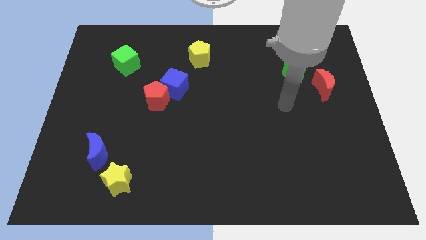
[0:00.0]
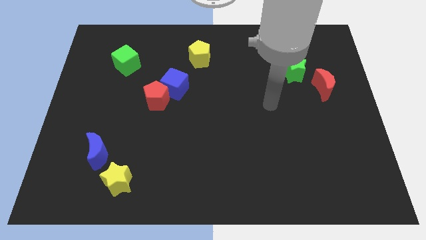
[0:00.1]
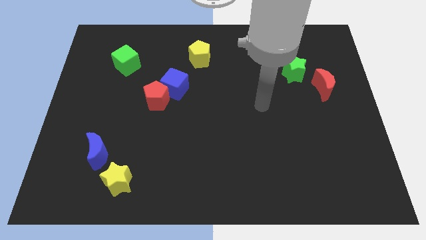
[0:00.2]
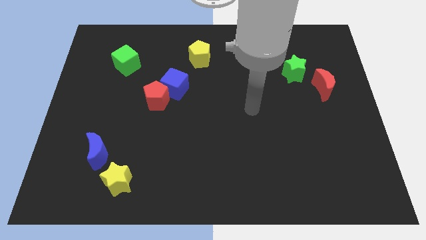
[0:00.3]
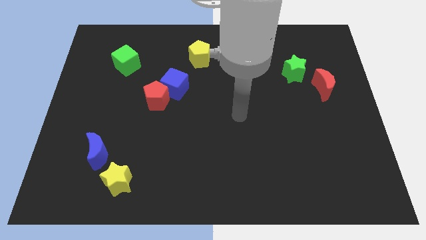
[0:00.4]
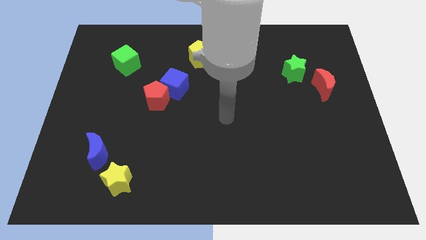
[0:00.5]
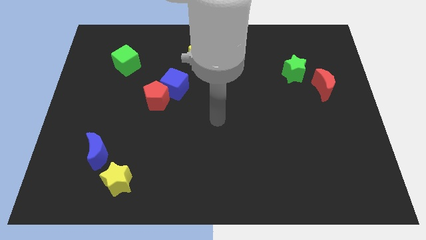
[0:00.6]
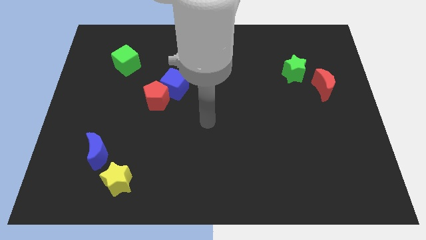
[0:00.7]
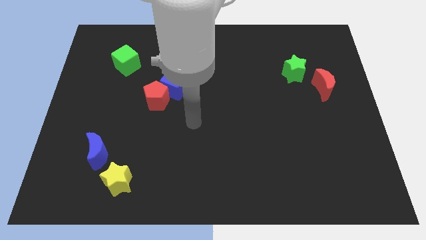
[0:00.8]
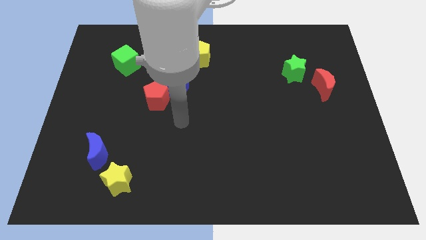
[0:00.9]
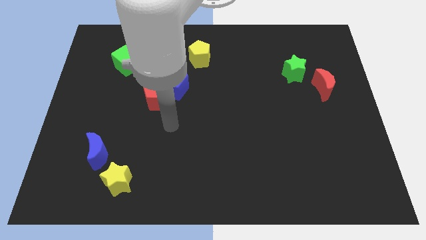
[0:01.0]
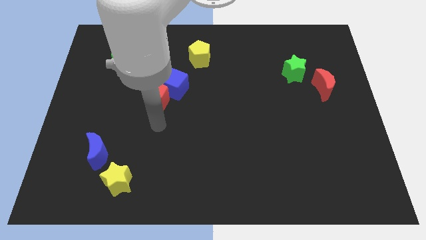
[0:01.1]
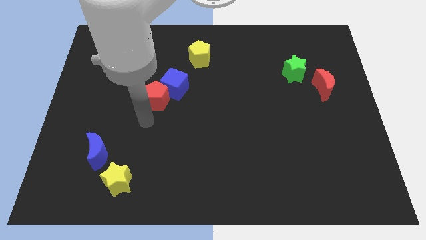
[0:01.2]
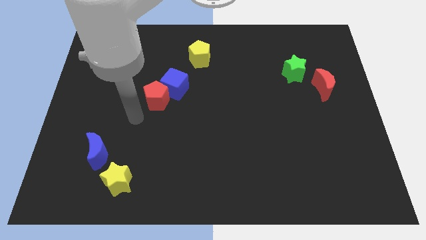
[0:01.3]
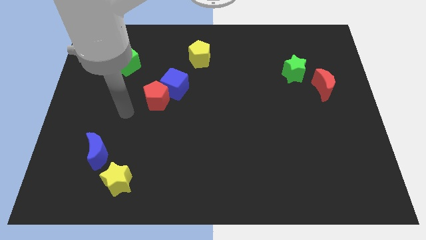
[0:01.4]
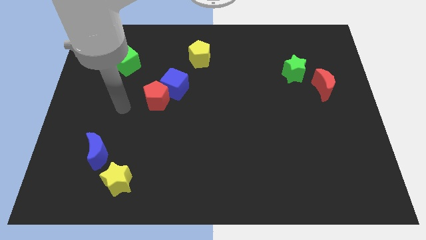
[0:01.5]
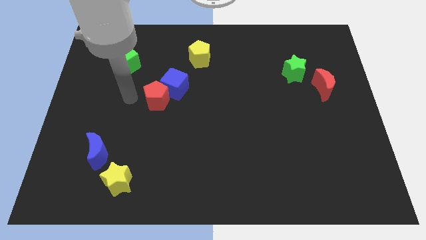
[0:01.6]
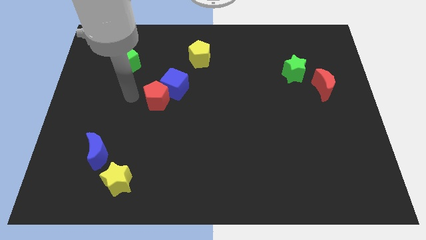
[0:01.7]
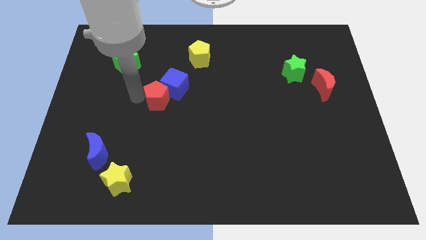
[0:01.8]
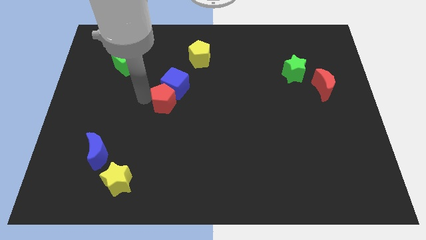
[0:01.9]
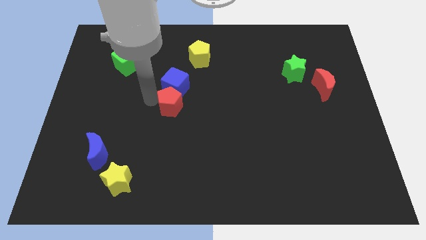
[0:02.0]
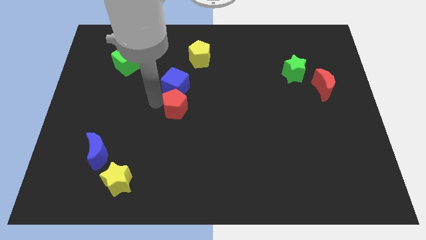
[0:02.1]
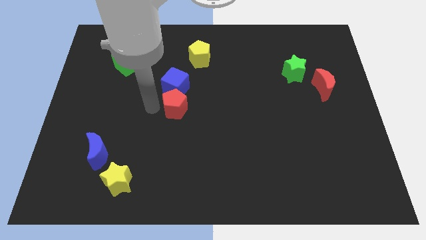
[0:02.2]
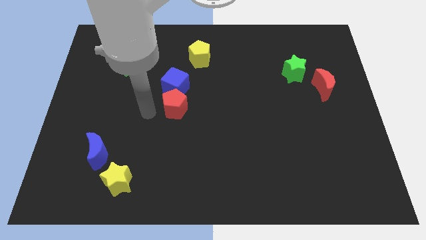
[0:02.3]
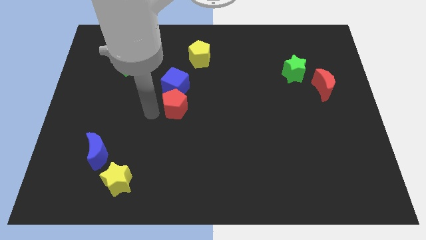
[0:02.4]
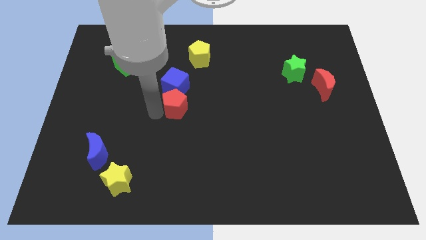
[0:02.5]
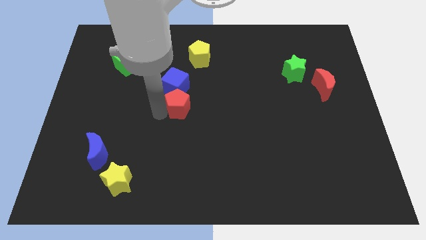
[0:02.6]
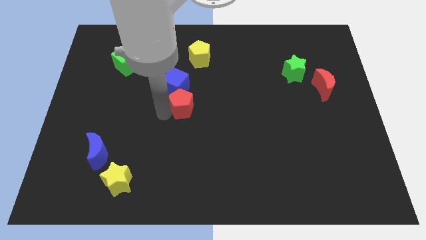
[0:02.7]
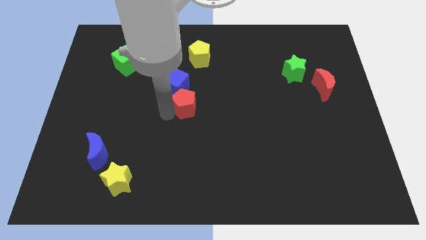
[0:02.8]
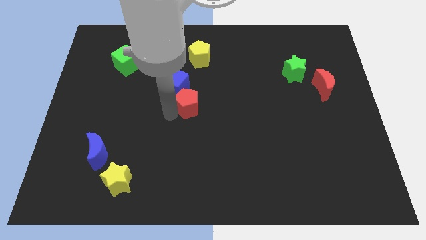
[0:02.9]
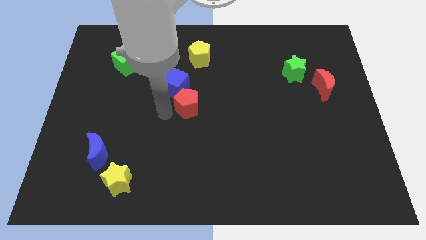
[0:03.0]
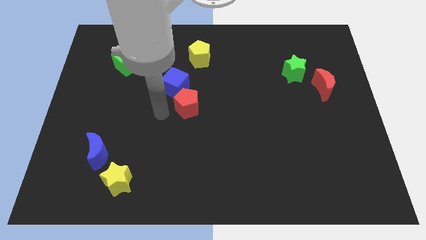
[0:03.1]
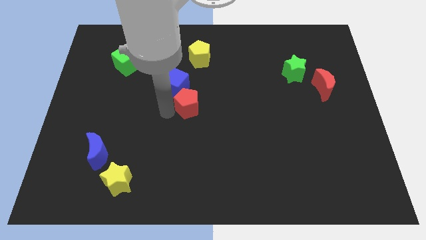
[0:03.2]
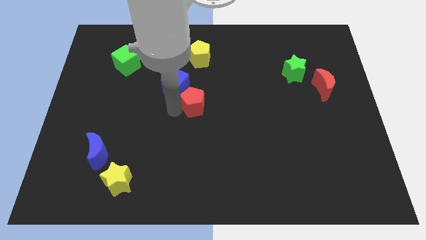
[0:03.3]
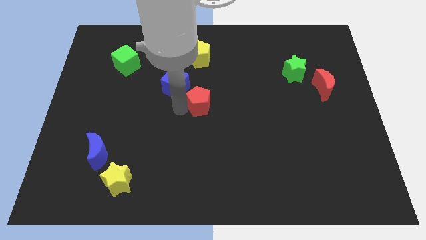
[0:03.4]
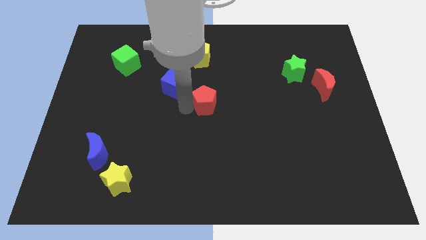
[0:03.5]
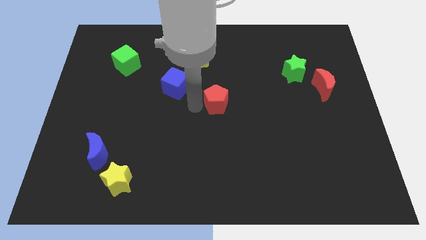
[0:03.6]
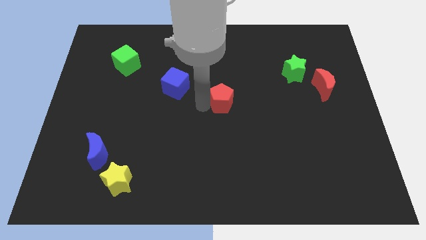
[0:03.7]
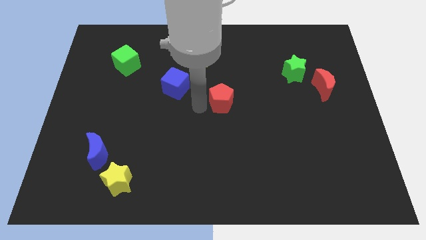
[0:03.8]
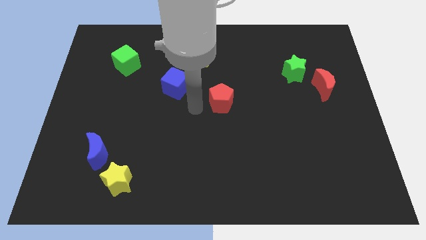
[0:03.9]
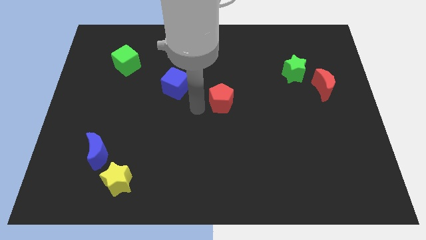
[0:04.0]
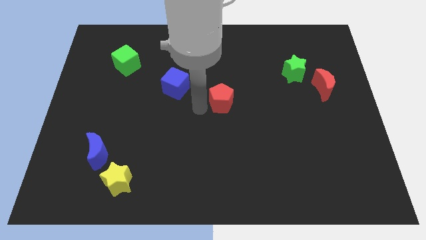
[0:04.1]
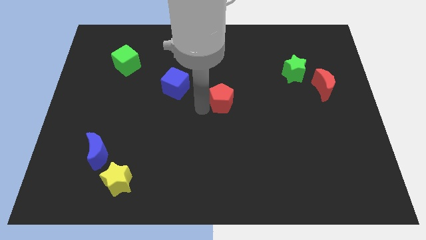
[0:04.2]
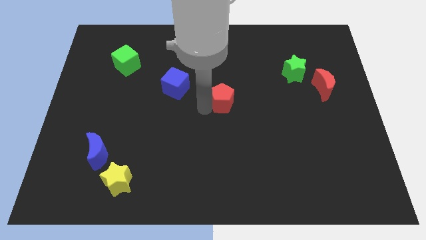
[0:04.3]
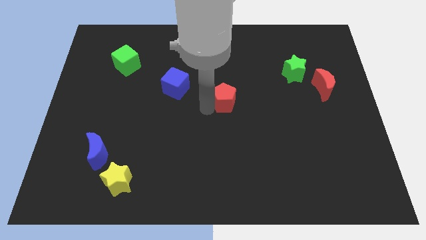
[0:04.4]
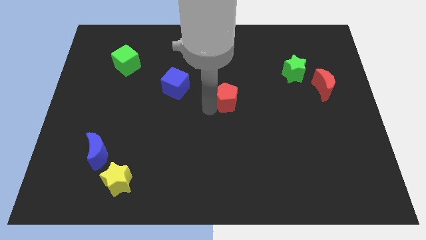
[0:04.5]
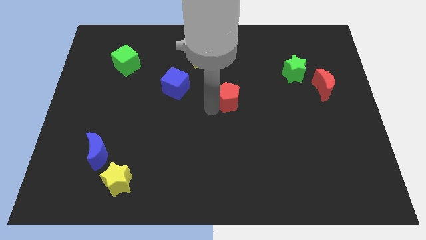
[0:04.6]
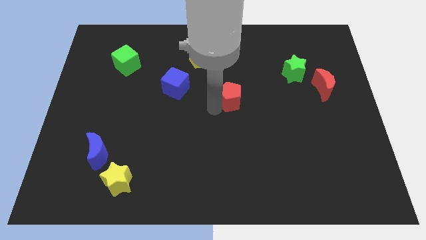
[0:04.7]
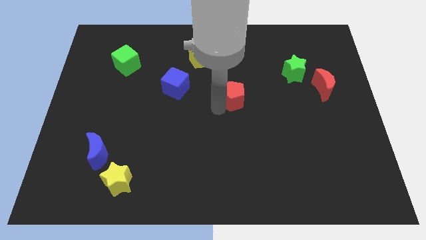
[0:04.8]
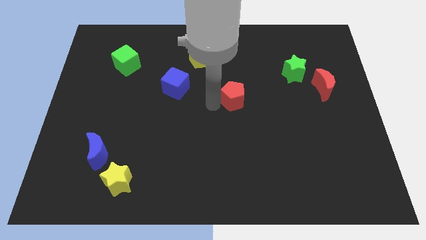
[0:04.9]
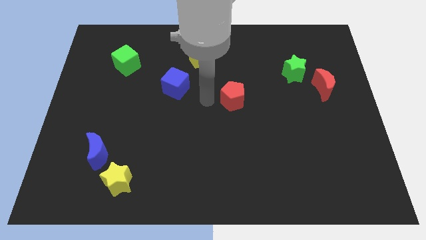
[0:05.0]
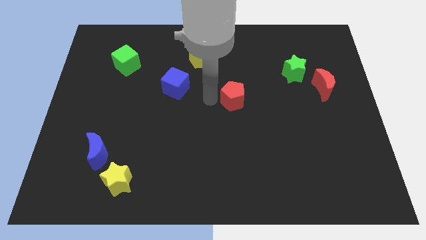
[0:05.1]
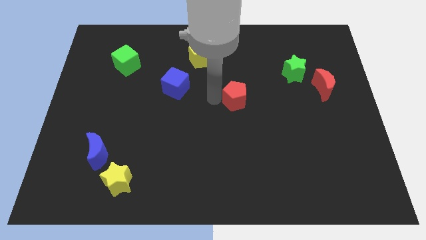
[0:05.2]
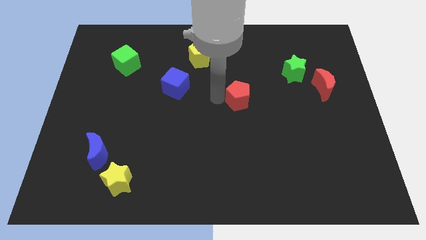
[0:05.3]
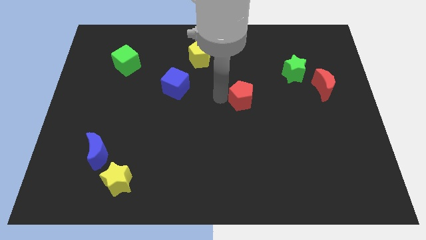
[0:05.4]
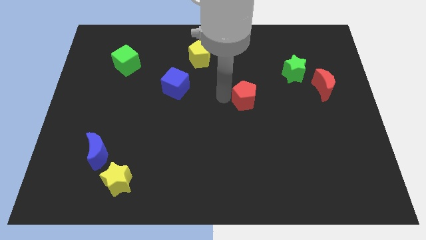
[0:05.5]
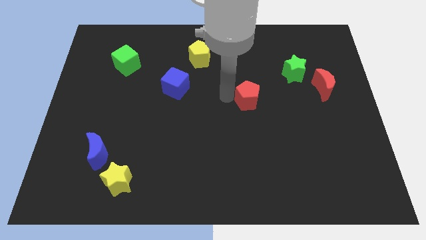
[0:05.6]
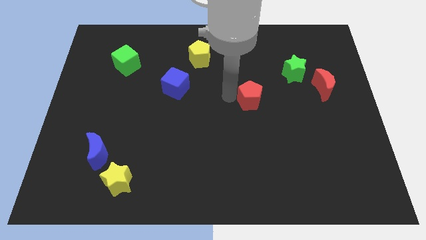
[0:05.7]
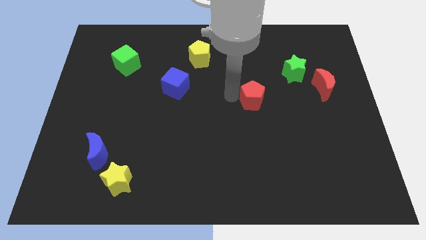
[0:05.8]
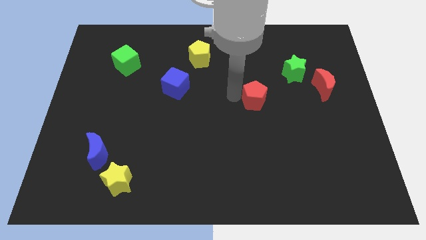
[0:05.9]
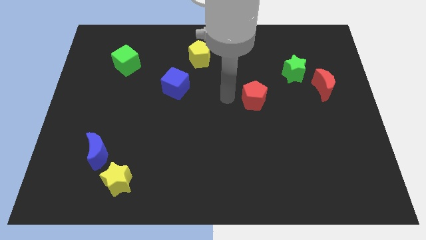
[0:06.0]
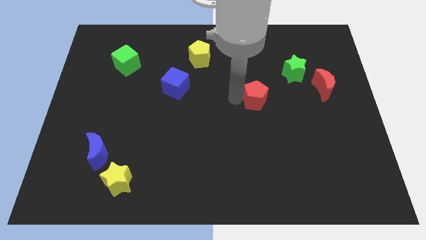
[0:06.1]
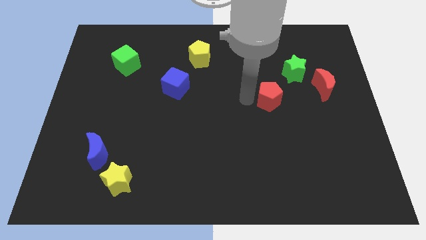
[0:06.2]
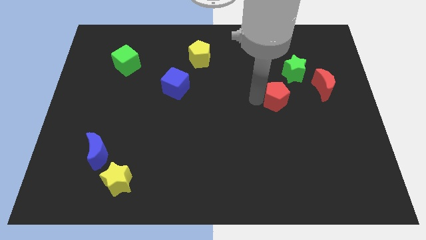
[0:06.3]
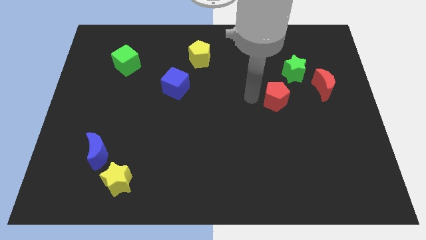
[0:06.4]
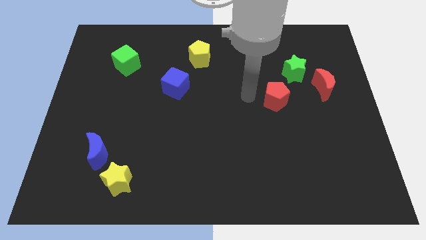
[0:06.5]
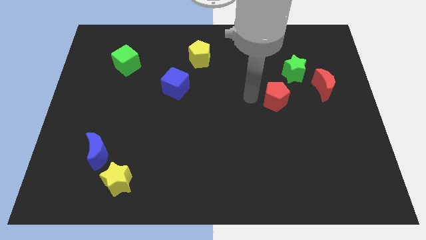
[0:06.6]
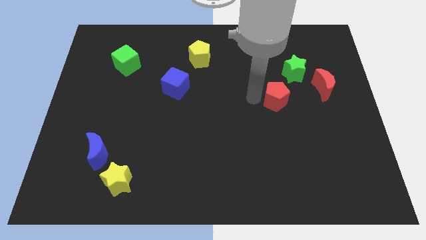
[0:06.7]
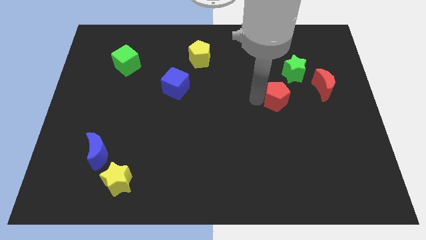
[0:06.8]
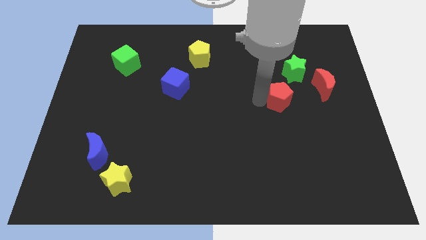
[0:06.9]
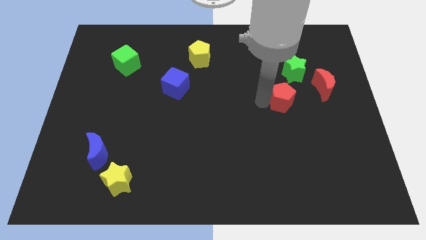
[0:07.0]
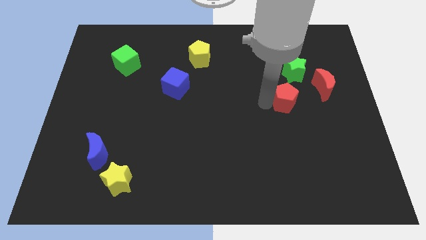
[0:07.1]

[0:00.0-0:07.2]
move the red pentagon diagonally down and to the left of the red moon
